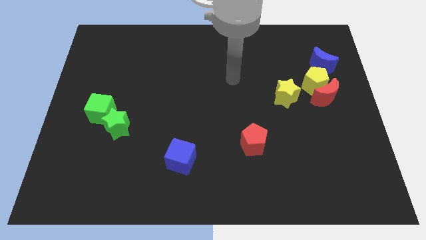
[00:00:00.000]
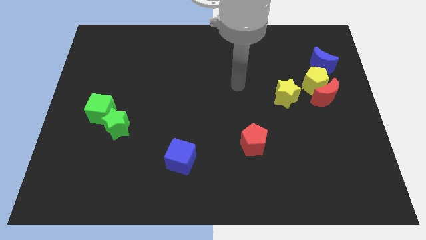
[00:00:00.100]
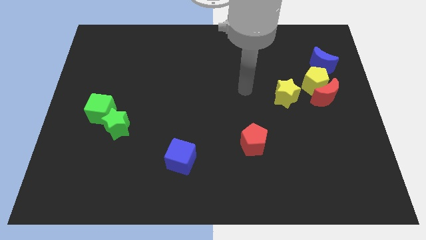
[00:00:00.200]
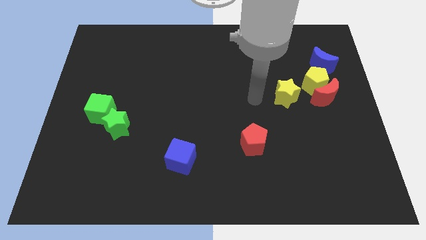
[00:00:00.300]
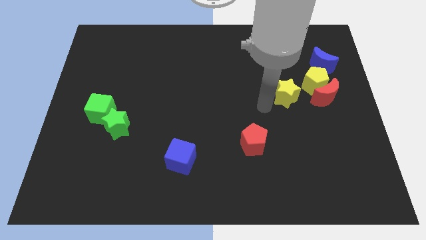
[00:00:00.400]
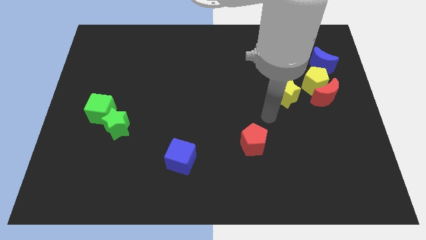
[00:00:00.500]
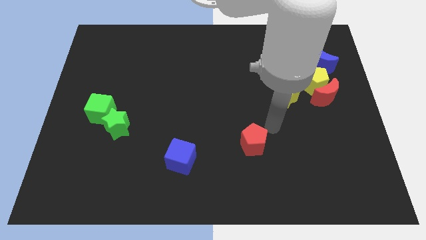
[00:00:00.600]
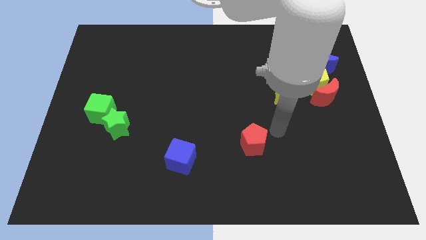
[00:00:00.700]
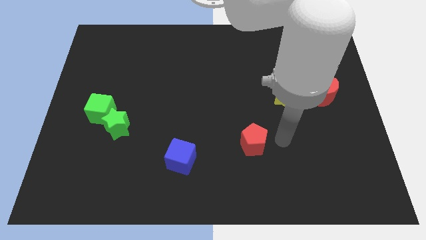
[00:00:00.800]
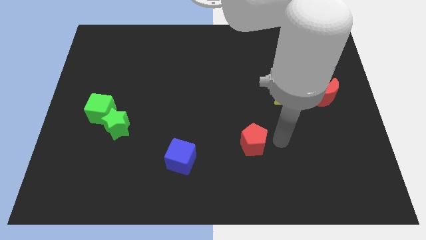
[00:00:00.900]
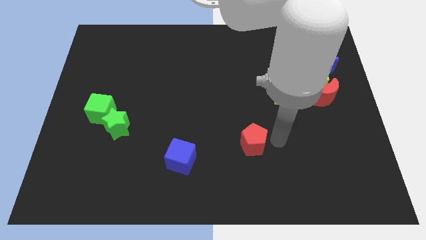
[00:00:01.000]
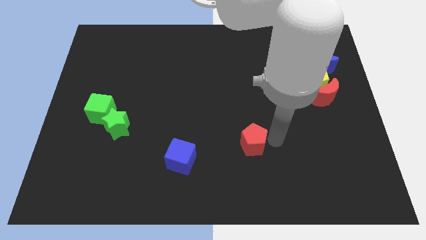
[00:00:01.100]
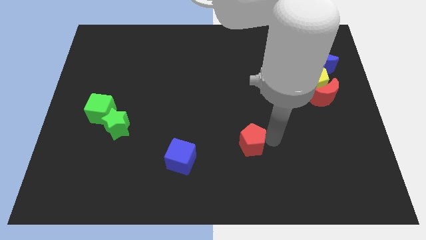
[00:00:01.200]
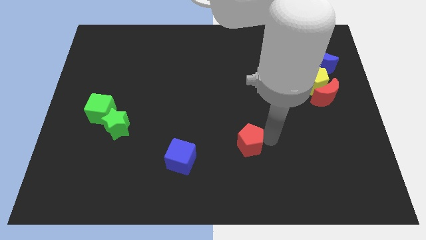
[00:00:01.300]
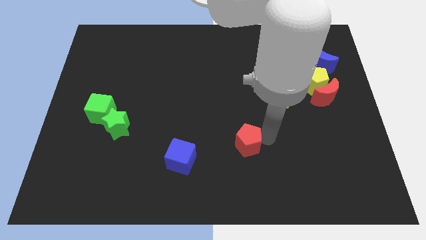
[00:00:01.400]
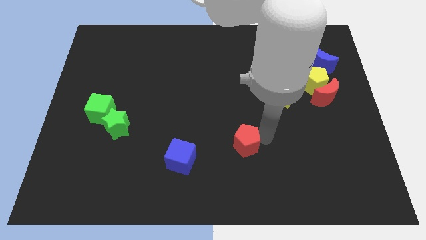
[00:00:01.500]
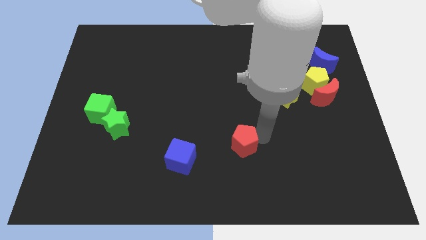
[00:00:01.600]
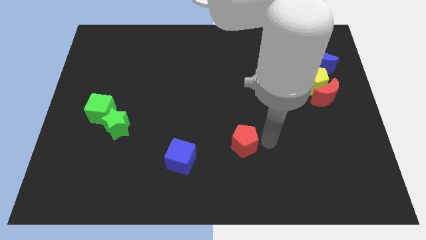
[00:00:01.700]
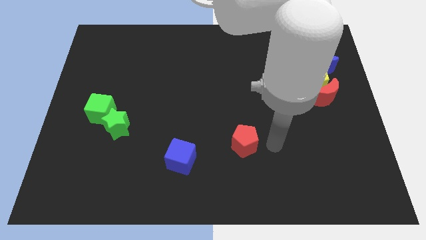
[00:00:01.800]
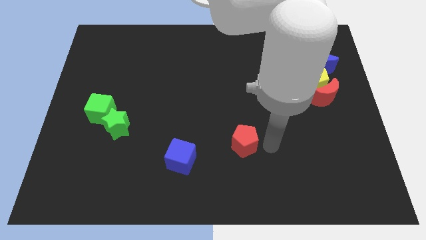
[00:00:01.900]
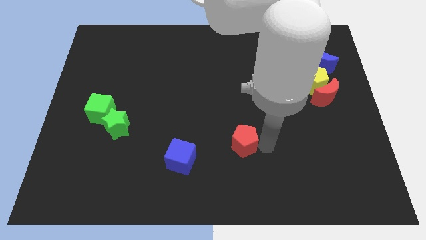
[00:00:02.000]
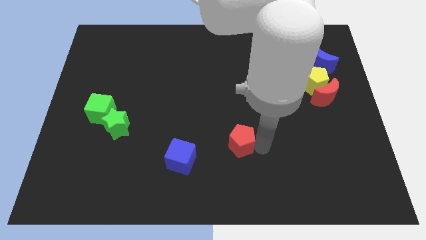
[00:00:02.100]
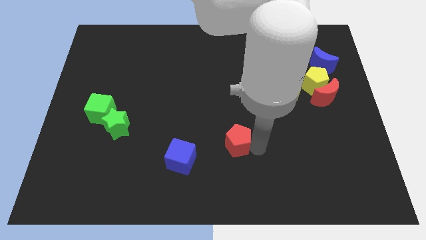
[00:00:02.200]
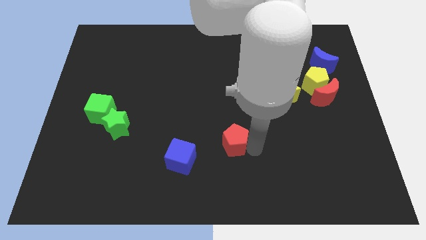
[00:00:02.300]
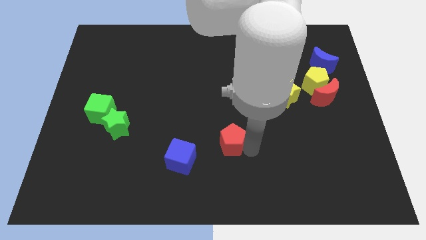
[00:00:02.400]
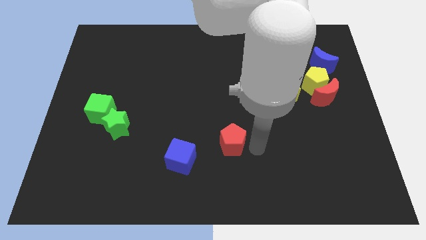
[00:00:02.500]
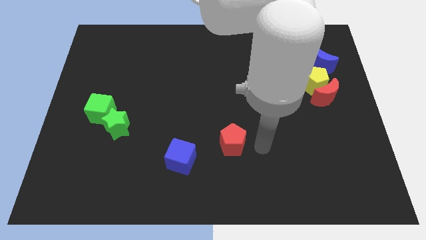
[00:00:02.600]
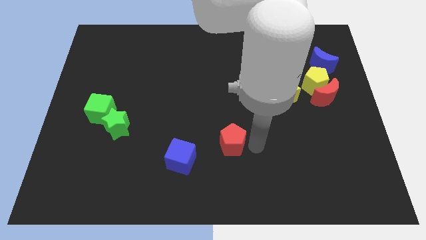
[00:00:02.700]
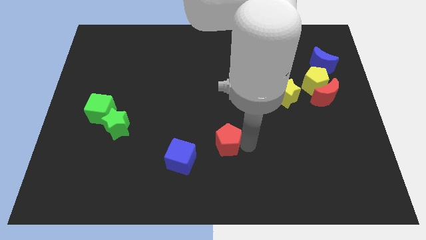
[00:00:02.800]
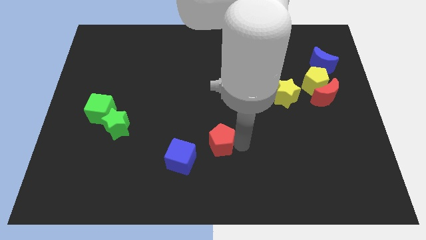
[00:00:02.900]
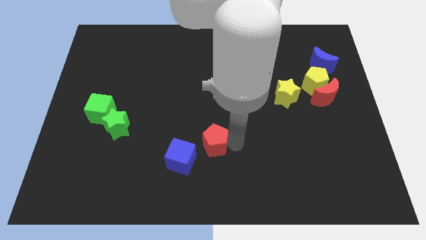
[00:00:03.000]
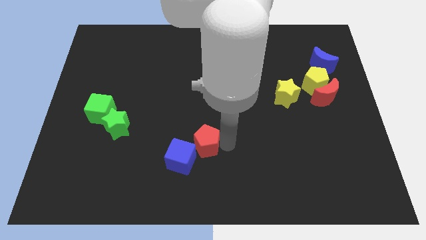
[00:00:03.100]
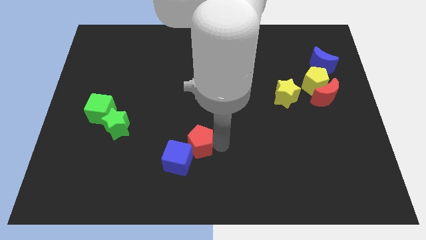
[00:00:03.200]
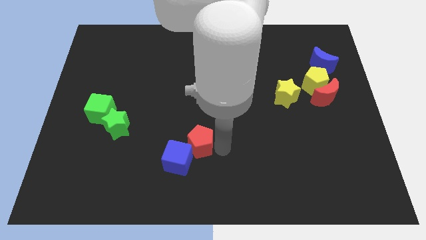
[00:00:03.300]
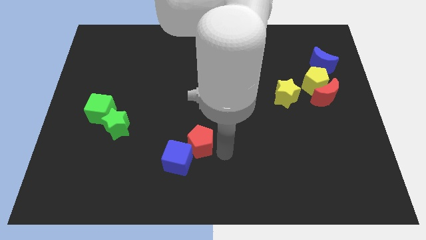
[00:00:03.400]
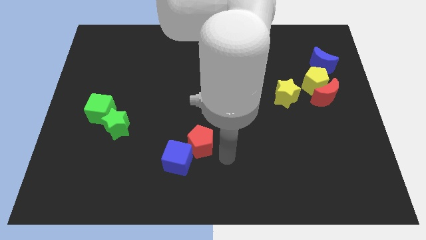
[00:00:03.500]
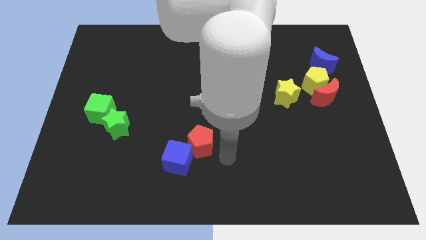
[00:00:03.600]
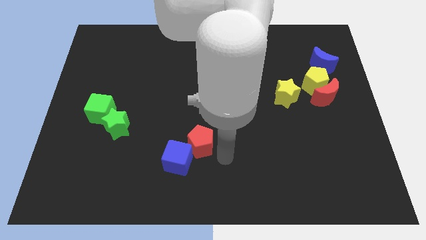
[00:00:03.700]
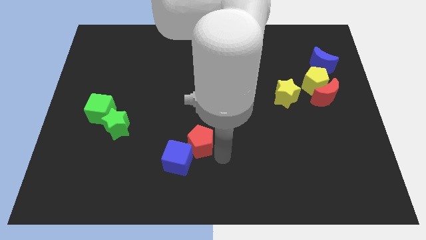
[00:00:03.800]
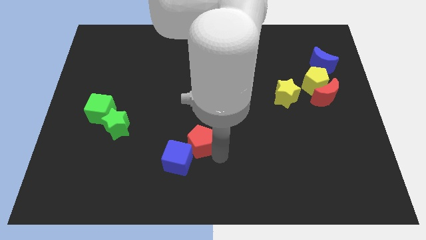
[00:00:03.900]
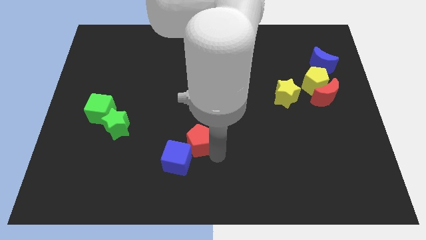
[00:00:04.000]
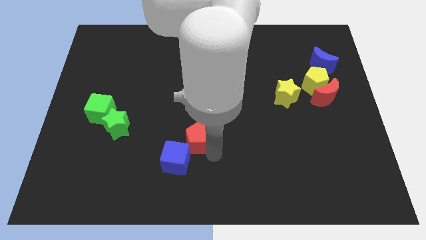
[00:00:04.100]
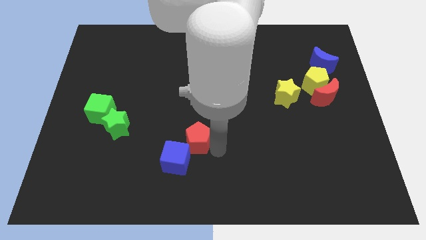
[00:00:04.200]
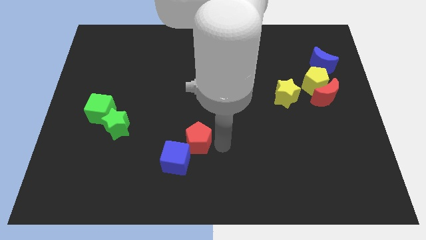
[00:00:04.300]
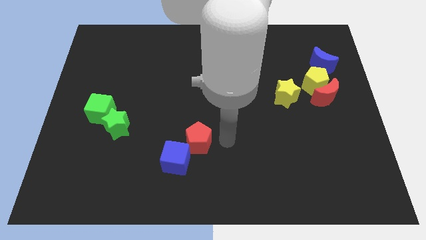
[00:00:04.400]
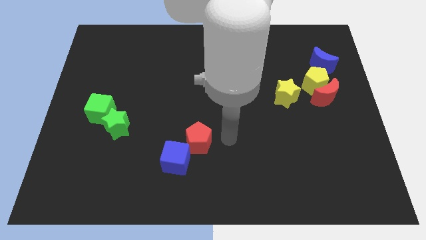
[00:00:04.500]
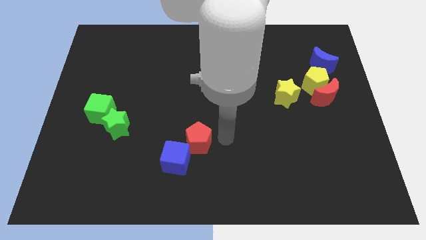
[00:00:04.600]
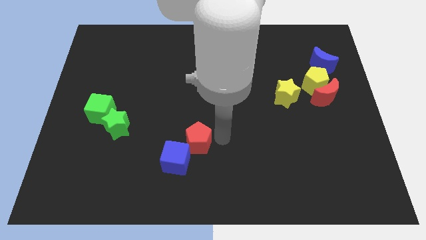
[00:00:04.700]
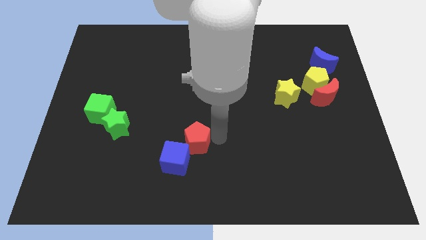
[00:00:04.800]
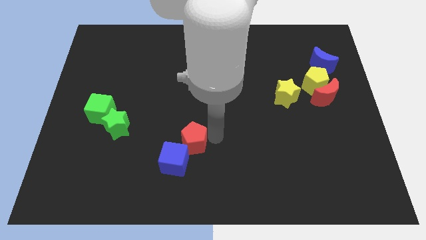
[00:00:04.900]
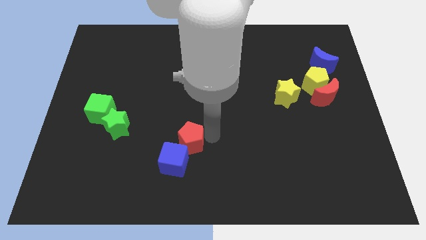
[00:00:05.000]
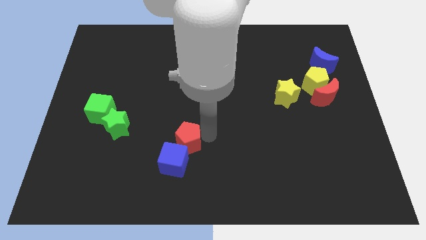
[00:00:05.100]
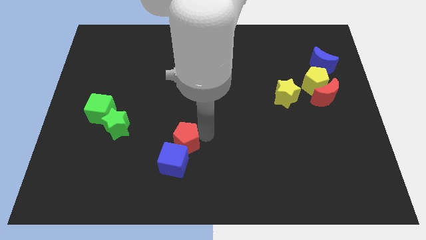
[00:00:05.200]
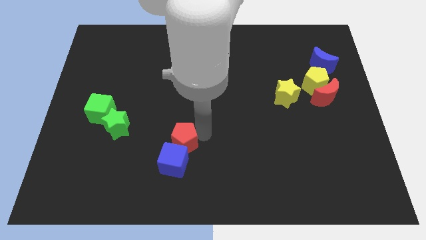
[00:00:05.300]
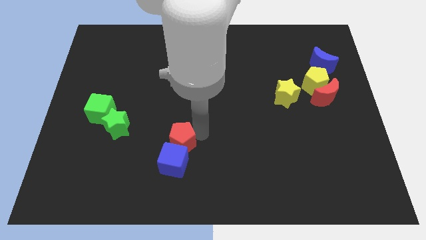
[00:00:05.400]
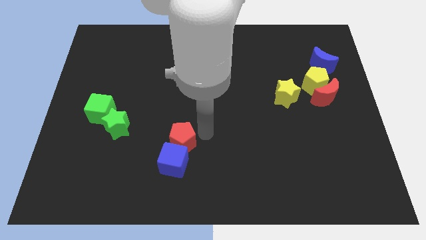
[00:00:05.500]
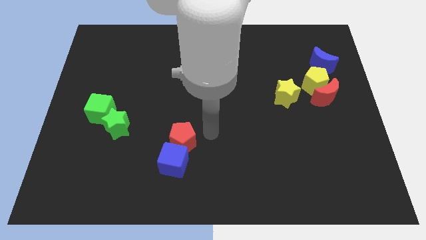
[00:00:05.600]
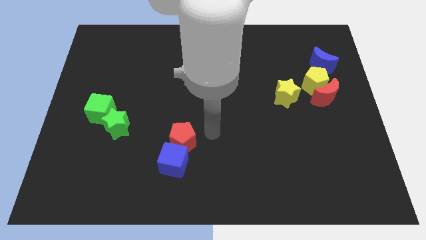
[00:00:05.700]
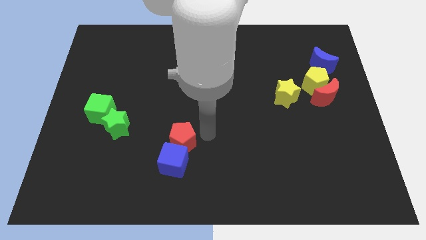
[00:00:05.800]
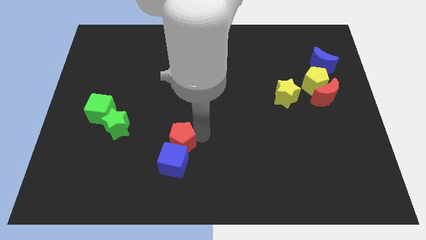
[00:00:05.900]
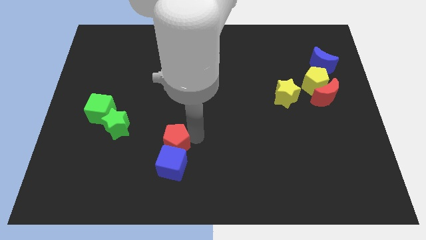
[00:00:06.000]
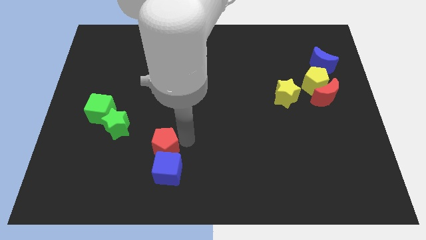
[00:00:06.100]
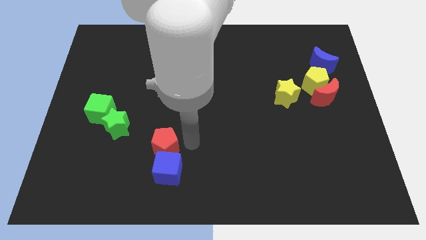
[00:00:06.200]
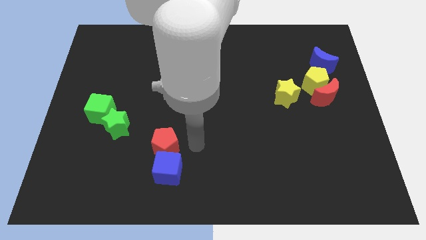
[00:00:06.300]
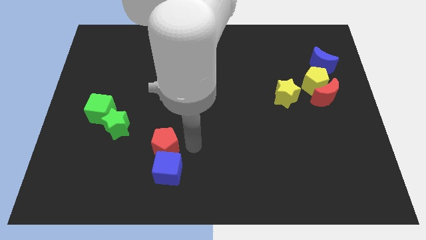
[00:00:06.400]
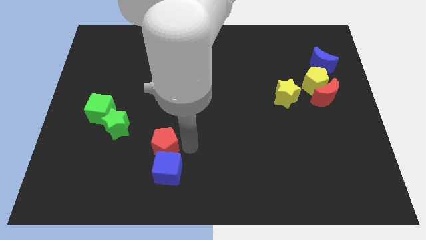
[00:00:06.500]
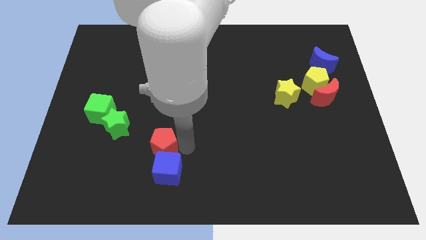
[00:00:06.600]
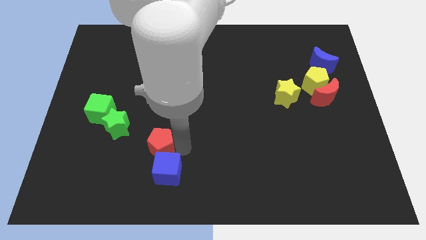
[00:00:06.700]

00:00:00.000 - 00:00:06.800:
push the red pentagon to the bottom right of the green star
